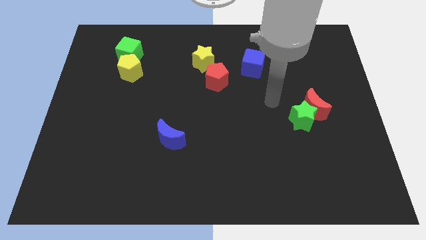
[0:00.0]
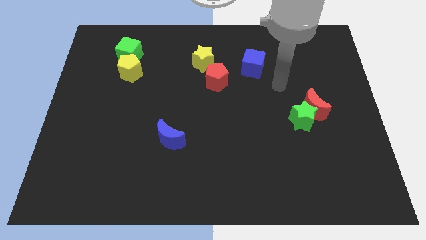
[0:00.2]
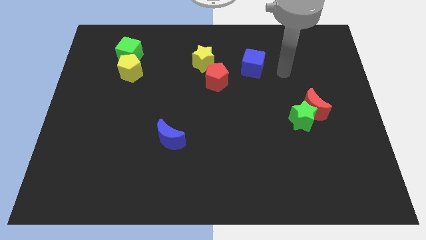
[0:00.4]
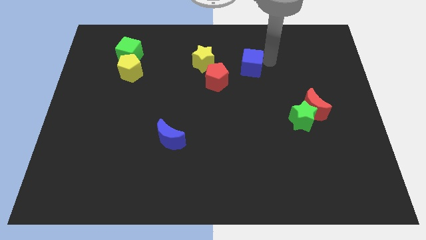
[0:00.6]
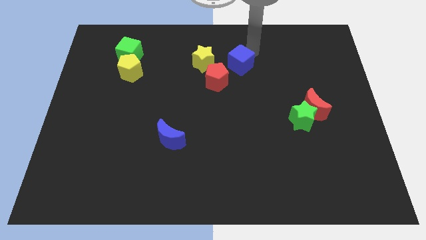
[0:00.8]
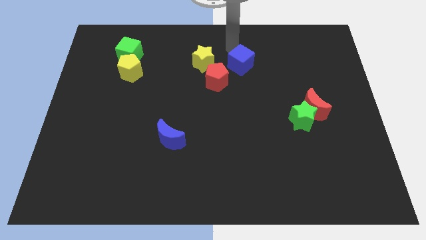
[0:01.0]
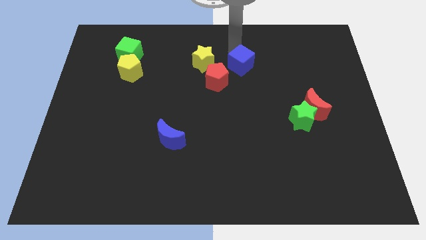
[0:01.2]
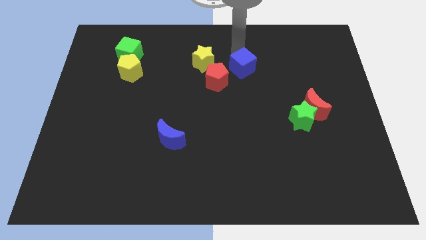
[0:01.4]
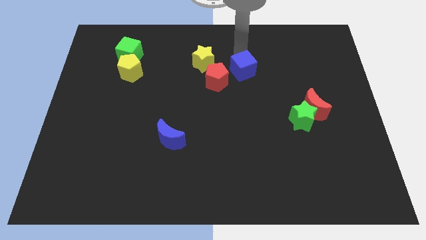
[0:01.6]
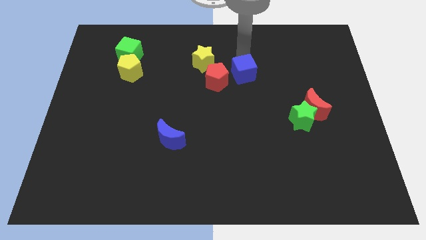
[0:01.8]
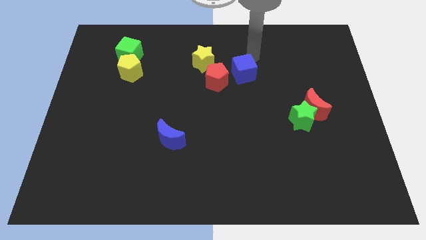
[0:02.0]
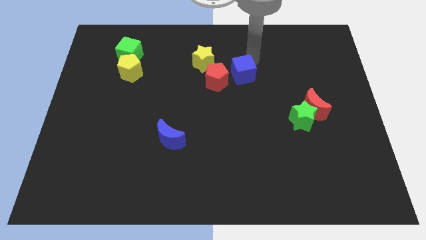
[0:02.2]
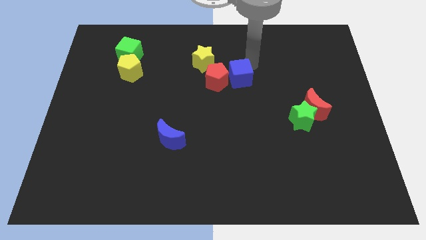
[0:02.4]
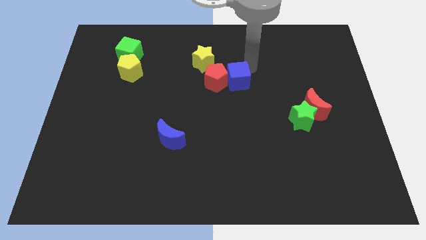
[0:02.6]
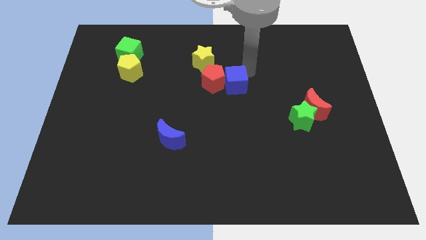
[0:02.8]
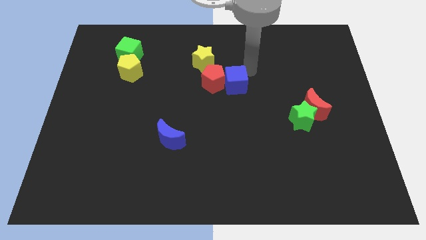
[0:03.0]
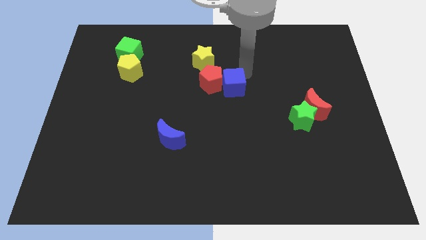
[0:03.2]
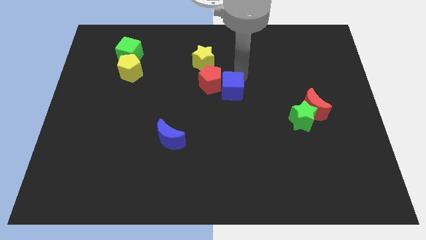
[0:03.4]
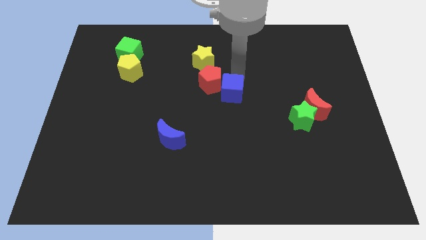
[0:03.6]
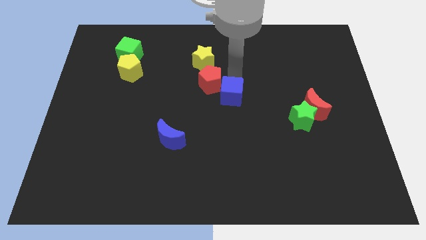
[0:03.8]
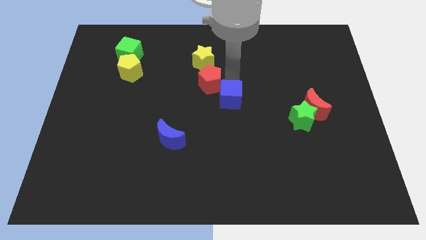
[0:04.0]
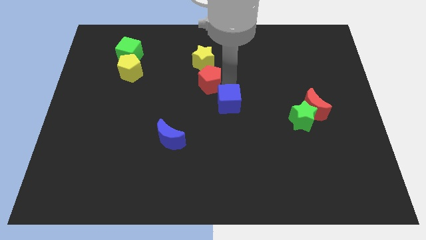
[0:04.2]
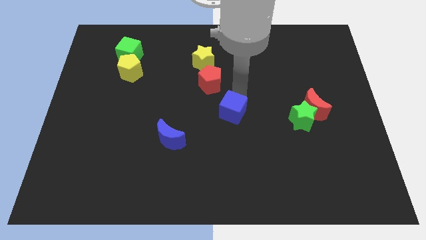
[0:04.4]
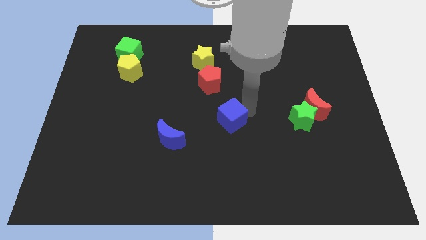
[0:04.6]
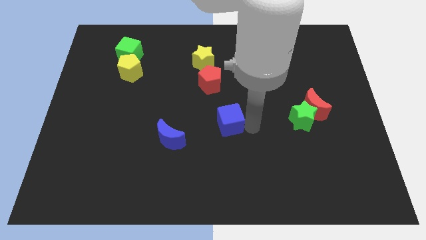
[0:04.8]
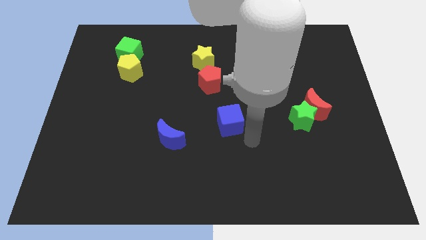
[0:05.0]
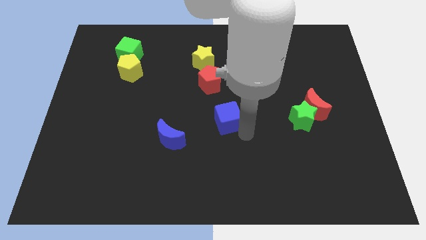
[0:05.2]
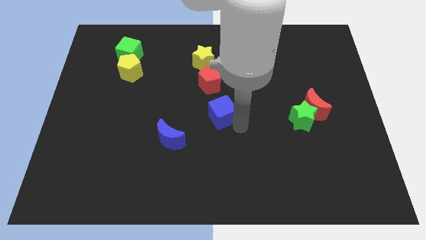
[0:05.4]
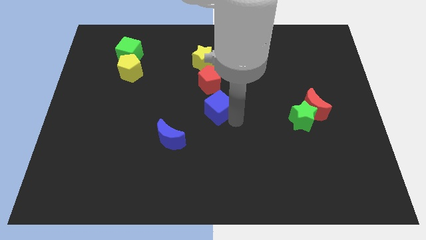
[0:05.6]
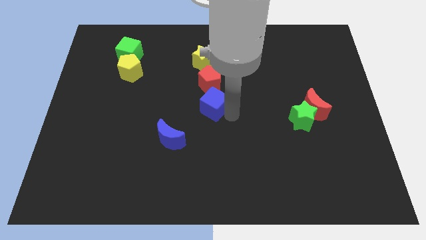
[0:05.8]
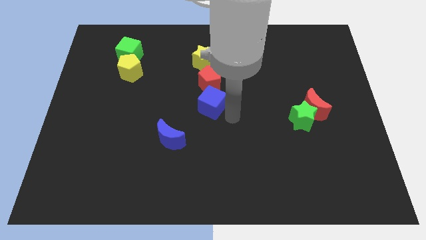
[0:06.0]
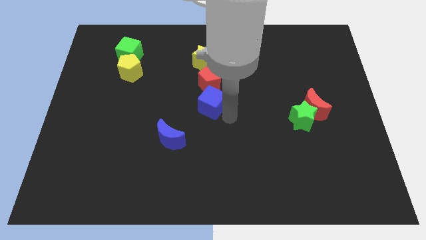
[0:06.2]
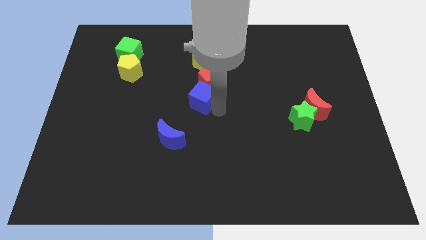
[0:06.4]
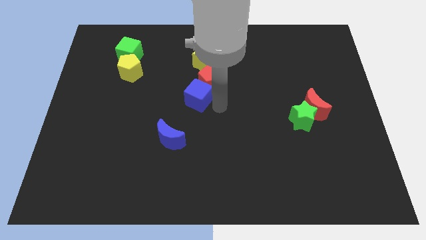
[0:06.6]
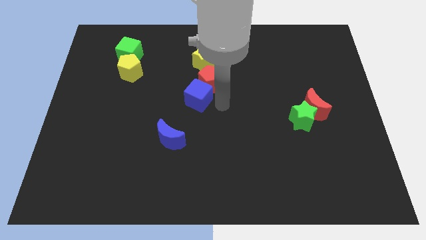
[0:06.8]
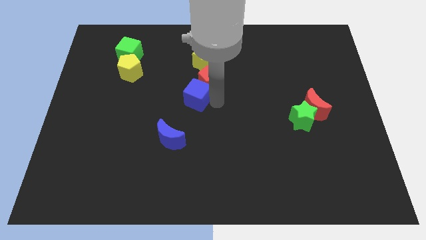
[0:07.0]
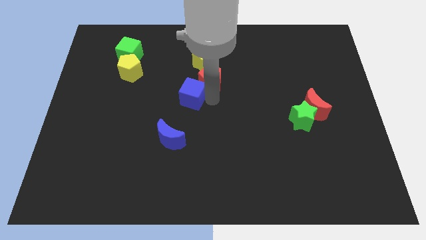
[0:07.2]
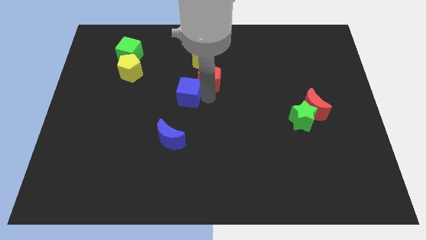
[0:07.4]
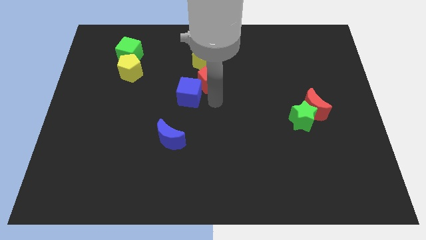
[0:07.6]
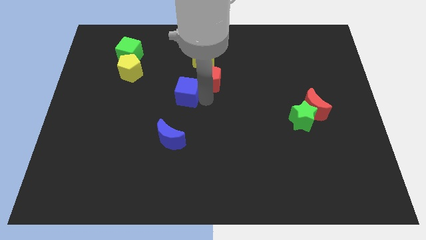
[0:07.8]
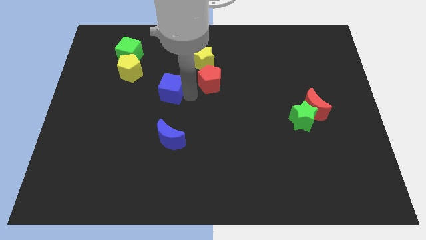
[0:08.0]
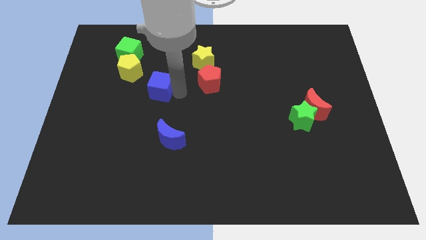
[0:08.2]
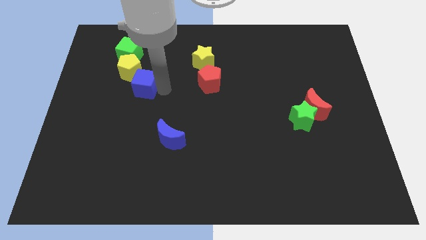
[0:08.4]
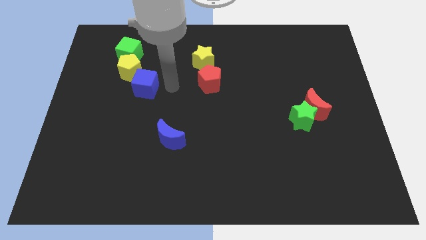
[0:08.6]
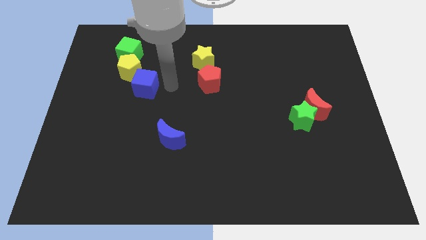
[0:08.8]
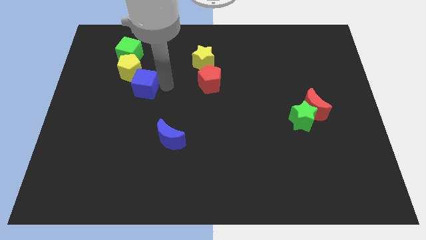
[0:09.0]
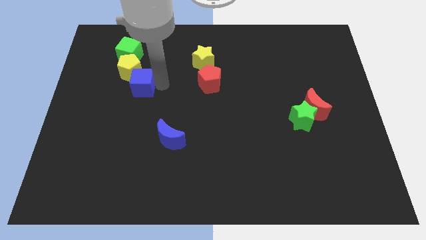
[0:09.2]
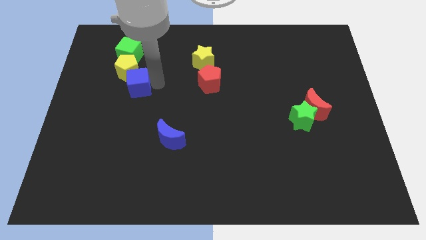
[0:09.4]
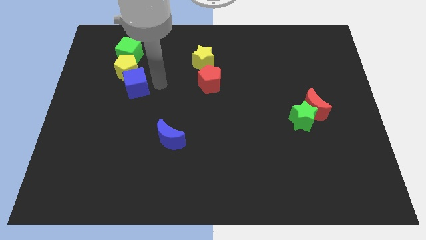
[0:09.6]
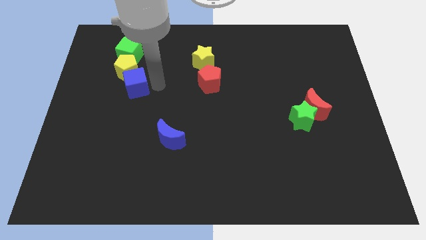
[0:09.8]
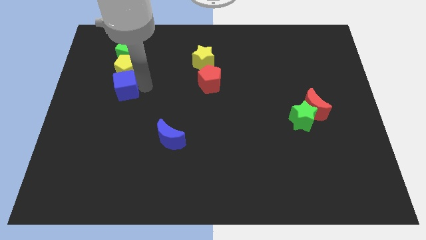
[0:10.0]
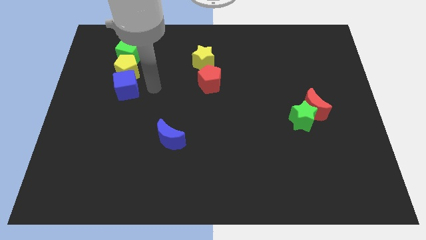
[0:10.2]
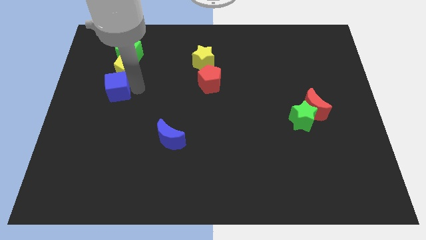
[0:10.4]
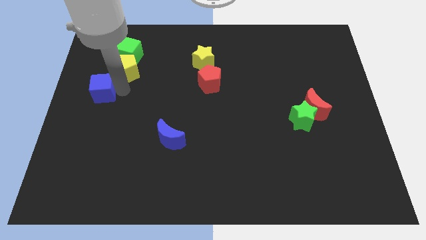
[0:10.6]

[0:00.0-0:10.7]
slide the blue cube to the left side of the board
